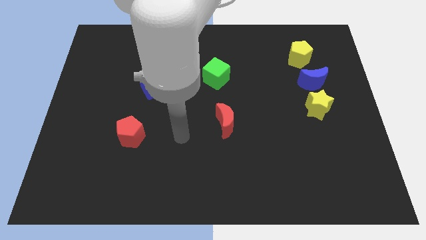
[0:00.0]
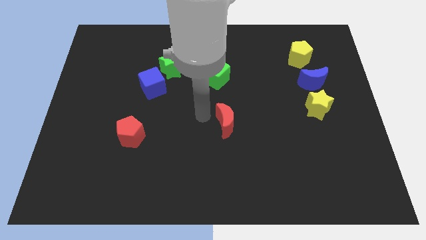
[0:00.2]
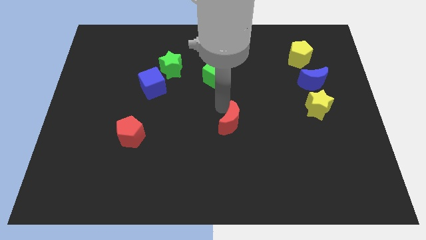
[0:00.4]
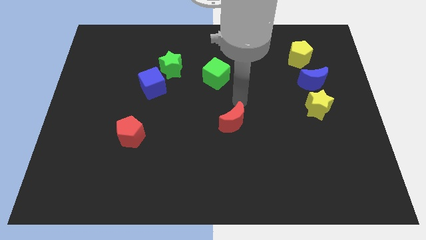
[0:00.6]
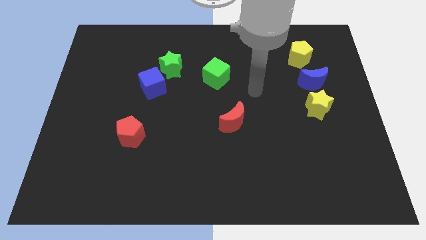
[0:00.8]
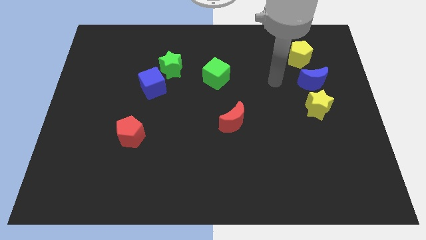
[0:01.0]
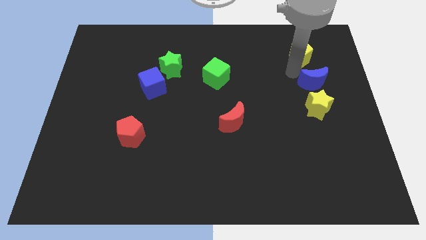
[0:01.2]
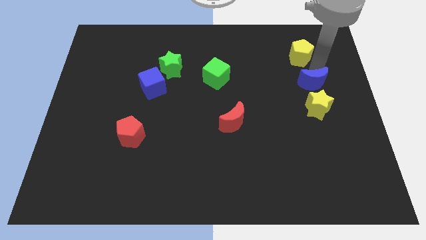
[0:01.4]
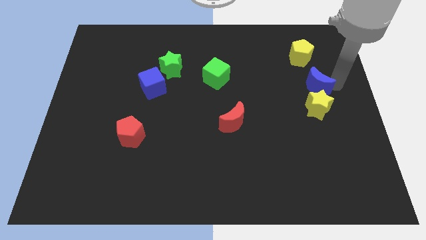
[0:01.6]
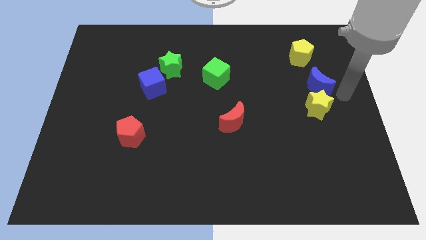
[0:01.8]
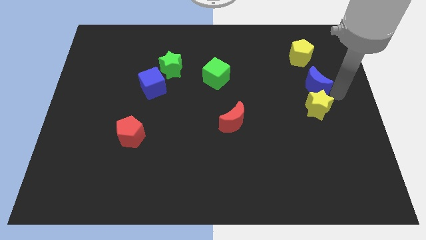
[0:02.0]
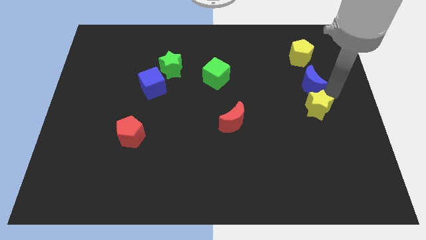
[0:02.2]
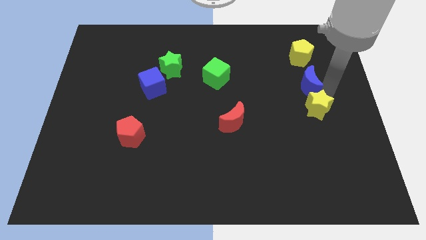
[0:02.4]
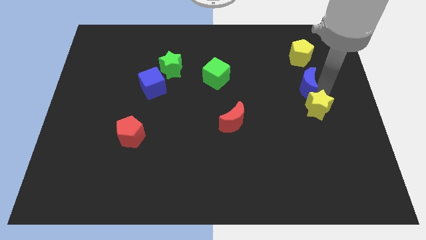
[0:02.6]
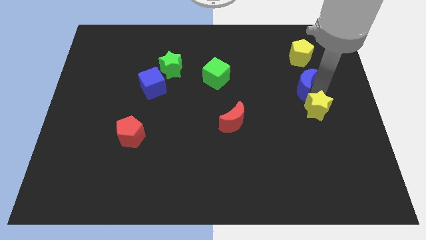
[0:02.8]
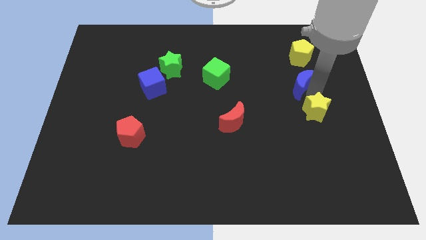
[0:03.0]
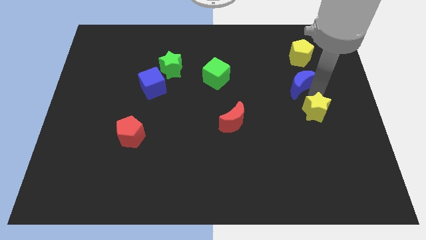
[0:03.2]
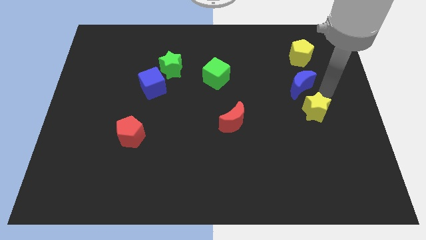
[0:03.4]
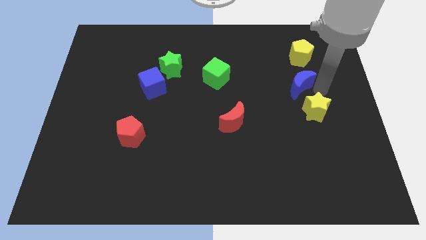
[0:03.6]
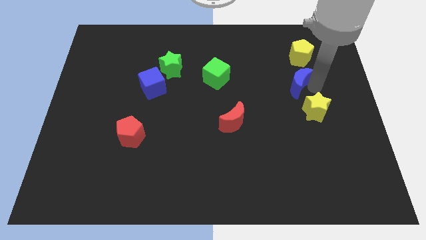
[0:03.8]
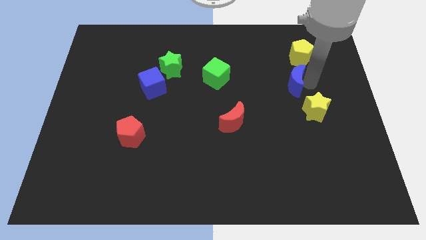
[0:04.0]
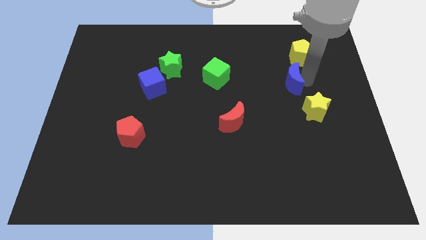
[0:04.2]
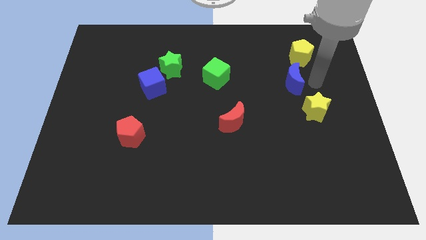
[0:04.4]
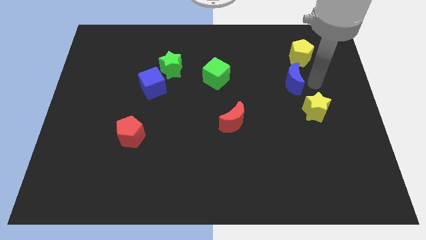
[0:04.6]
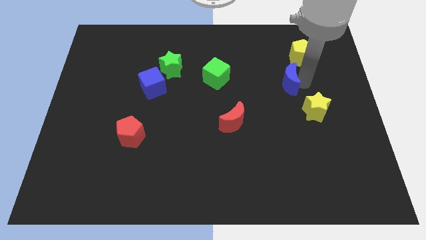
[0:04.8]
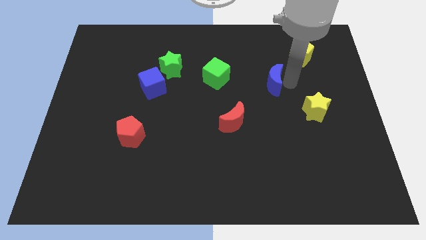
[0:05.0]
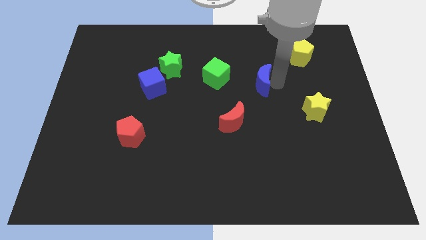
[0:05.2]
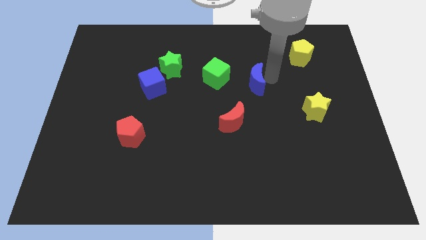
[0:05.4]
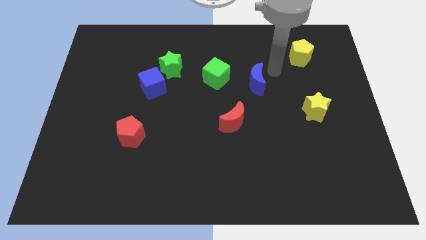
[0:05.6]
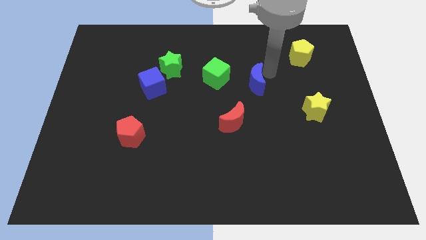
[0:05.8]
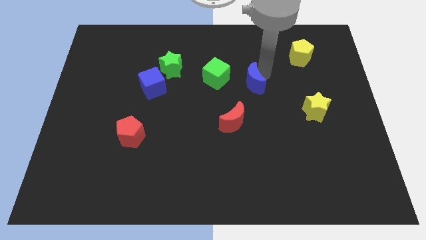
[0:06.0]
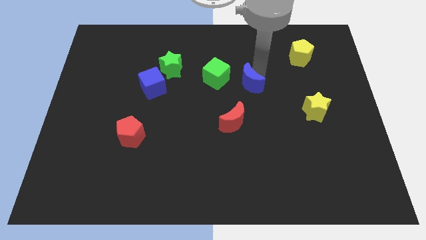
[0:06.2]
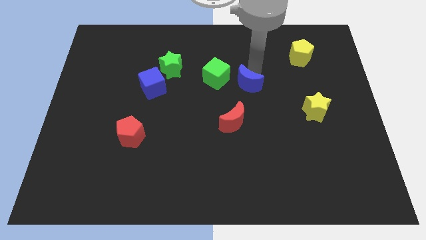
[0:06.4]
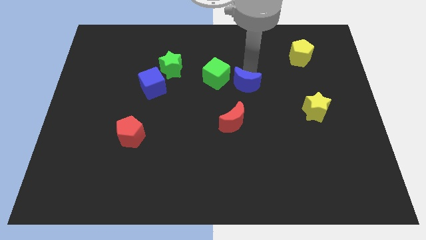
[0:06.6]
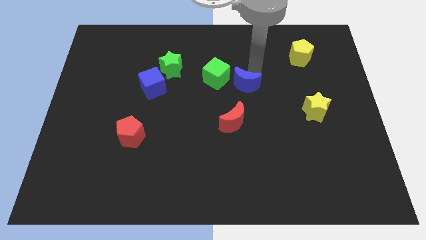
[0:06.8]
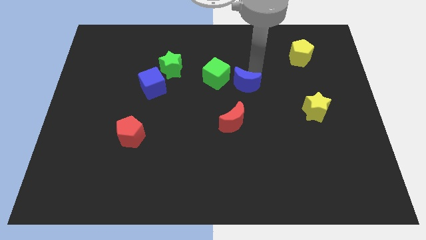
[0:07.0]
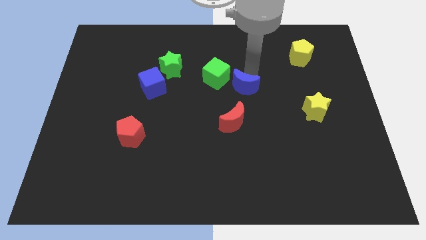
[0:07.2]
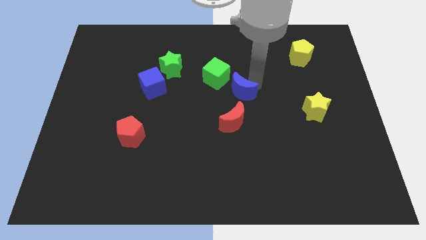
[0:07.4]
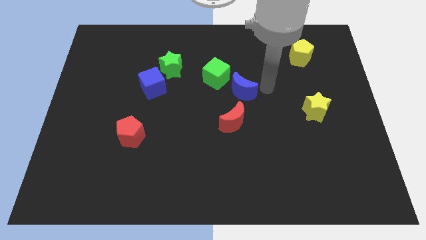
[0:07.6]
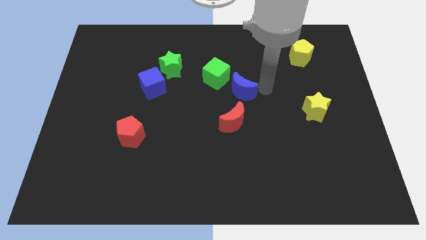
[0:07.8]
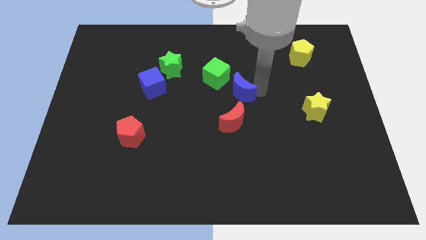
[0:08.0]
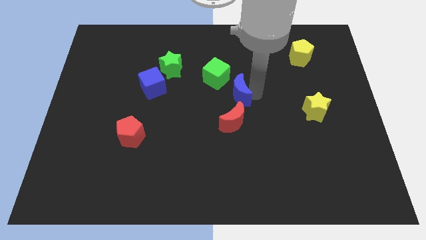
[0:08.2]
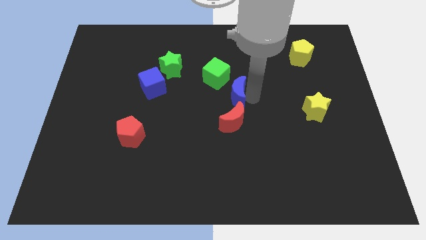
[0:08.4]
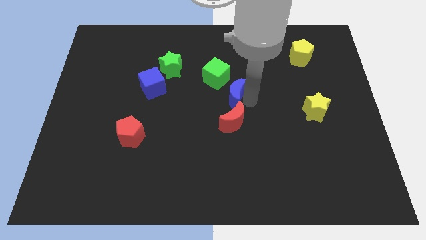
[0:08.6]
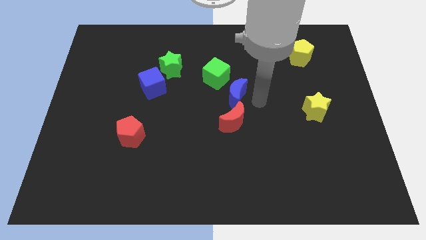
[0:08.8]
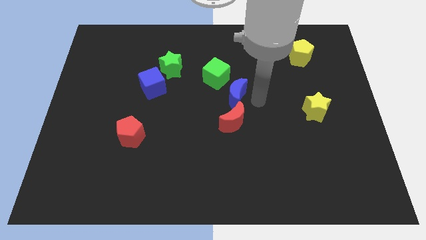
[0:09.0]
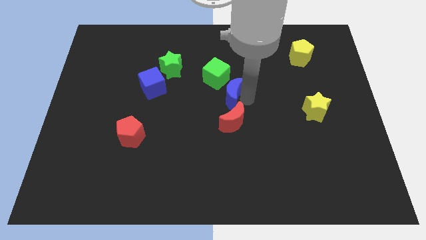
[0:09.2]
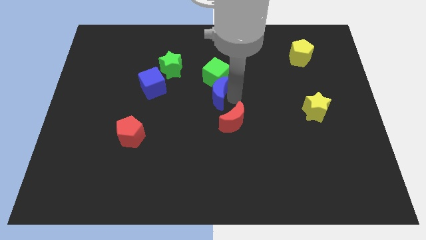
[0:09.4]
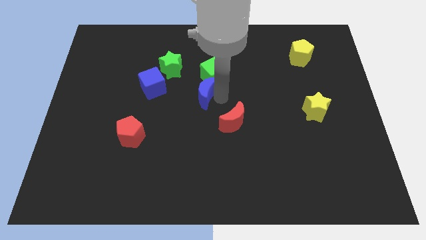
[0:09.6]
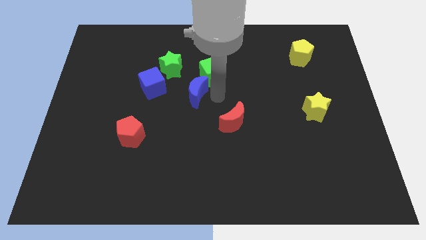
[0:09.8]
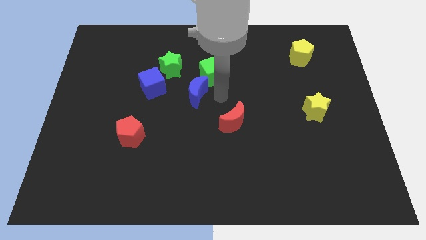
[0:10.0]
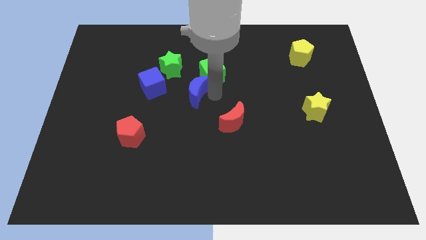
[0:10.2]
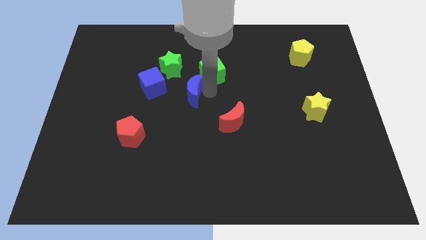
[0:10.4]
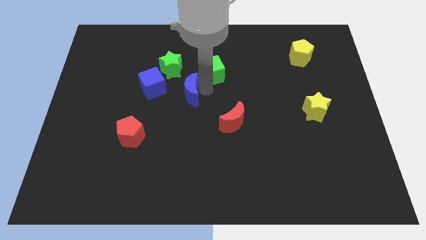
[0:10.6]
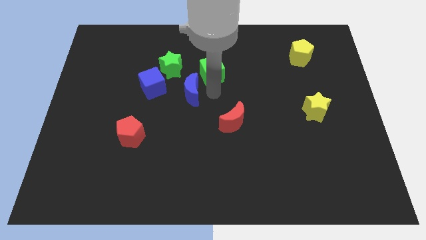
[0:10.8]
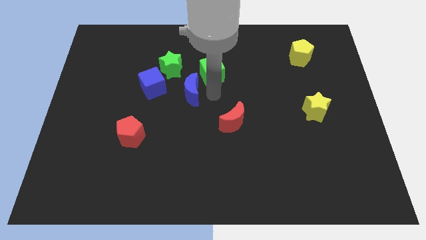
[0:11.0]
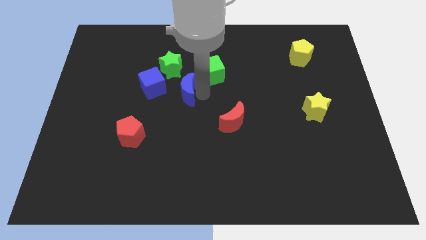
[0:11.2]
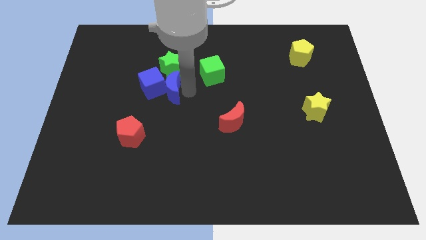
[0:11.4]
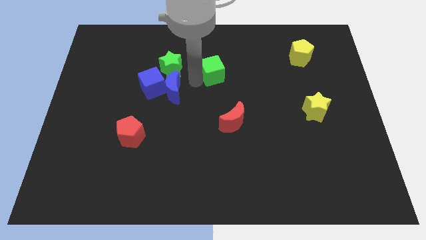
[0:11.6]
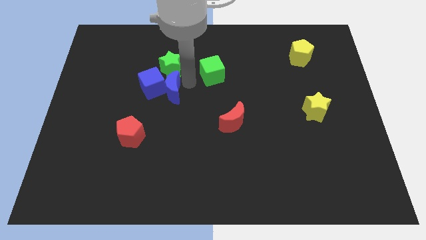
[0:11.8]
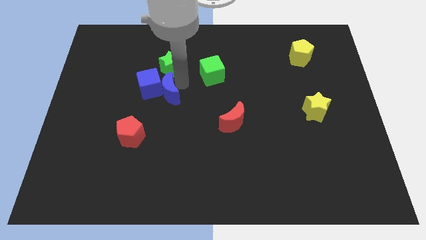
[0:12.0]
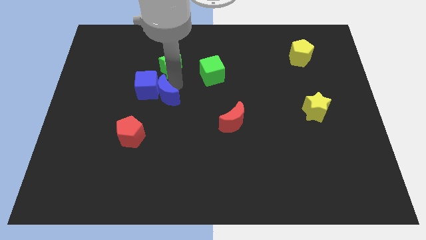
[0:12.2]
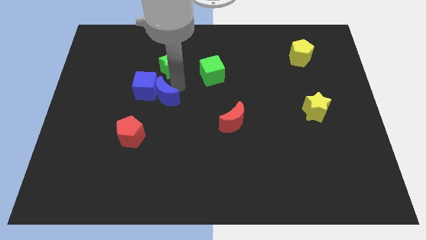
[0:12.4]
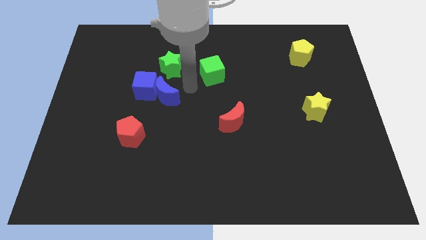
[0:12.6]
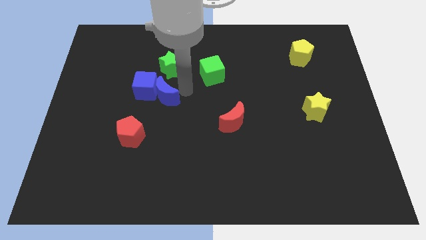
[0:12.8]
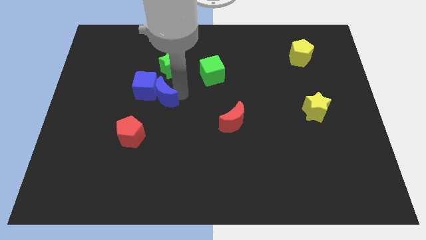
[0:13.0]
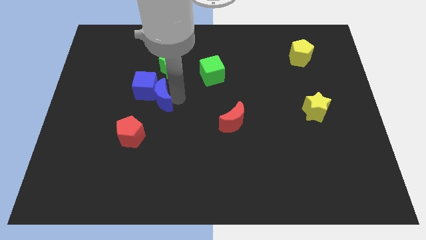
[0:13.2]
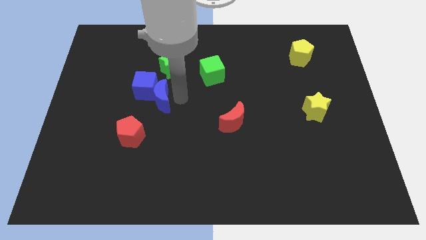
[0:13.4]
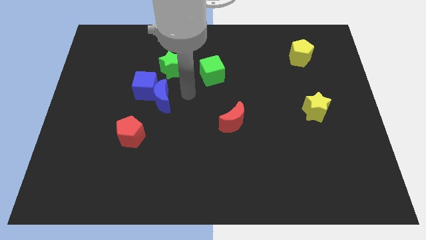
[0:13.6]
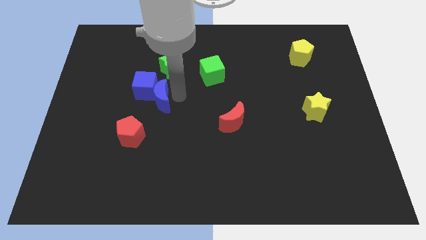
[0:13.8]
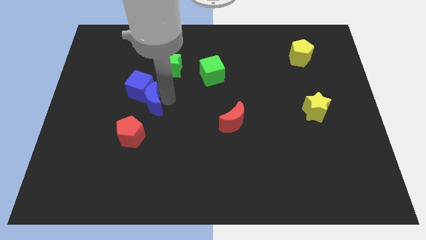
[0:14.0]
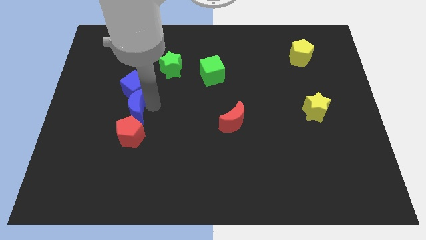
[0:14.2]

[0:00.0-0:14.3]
slide the blue moon to the bottom left of the blue cube

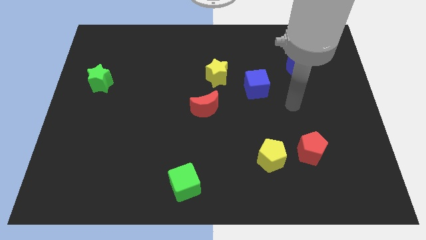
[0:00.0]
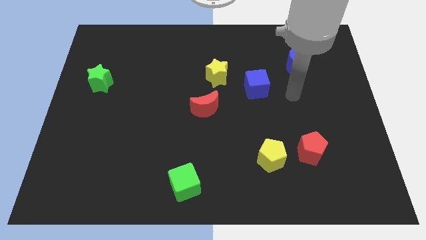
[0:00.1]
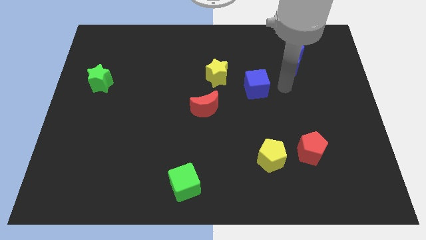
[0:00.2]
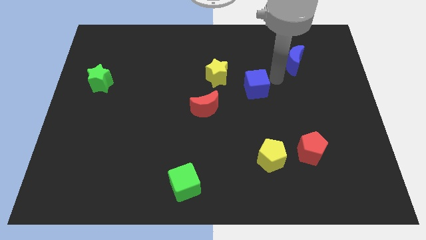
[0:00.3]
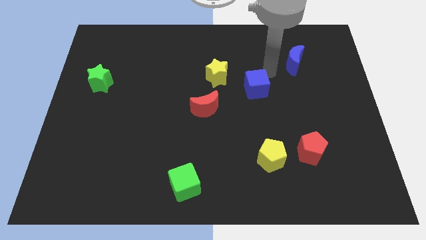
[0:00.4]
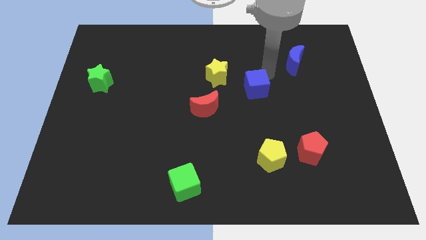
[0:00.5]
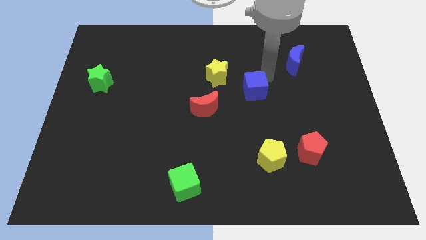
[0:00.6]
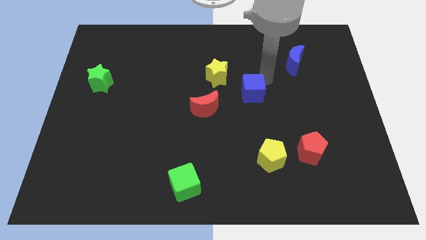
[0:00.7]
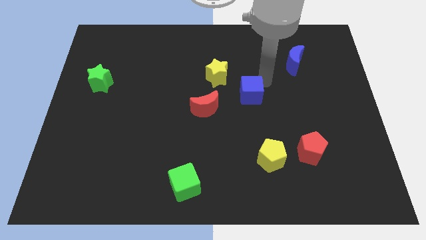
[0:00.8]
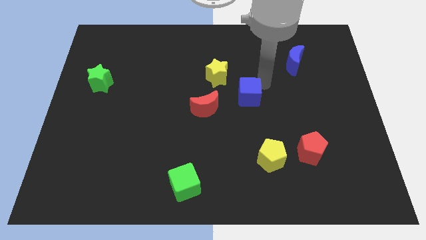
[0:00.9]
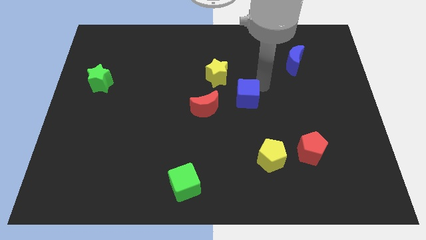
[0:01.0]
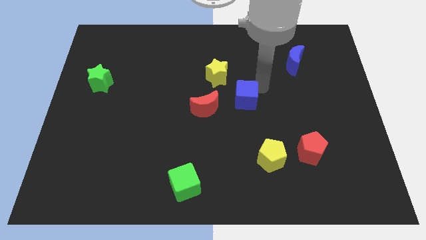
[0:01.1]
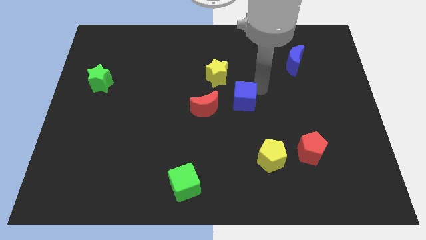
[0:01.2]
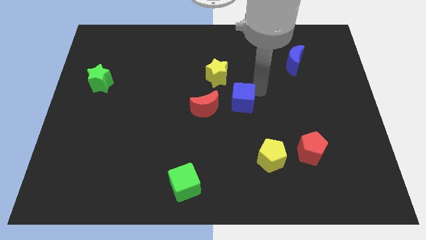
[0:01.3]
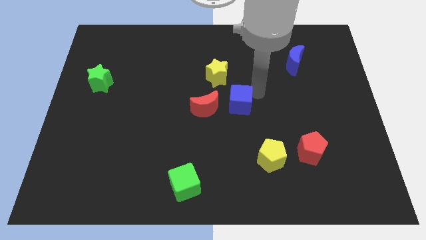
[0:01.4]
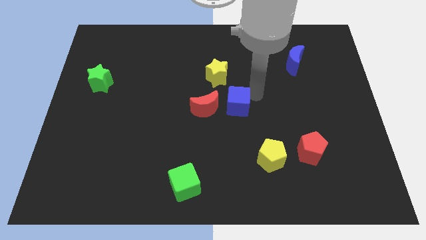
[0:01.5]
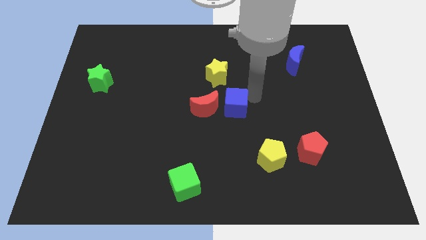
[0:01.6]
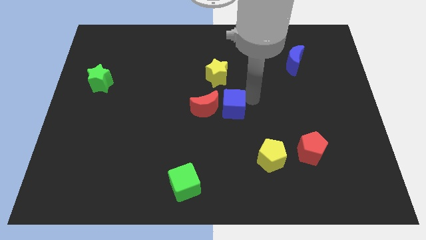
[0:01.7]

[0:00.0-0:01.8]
push the blue cube diagonally down and to the right of the red moon
